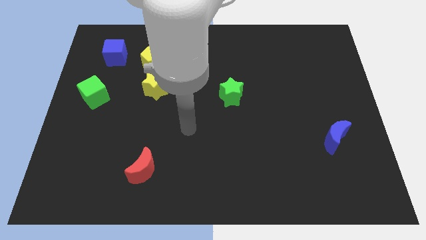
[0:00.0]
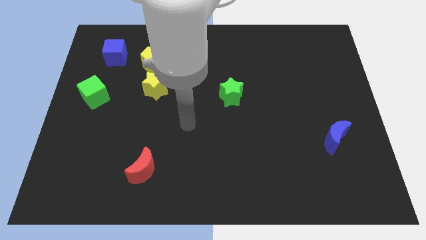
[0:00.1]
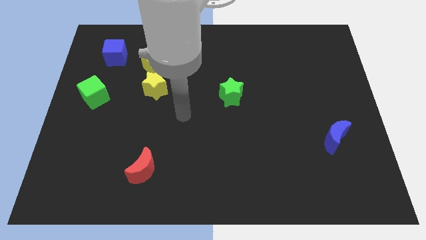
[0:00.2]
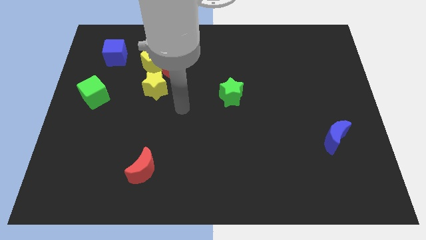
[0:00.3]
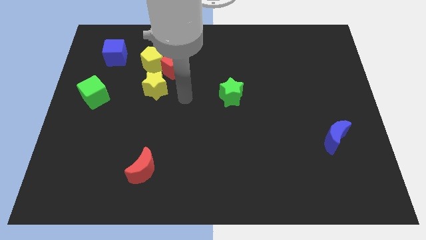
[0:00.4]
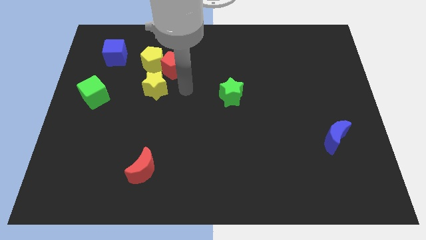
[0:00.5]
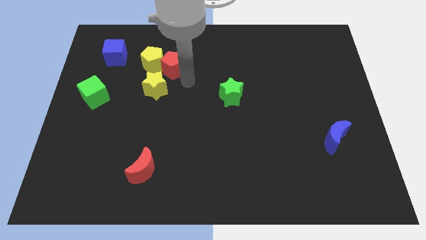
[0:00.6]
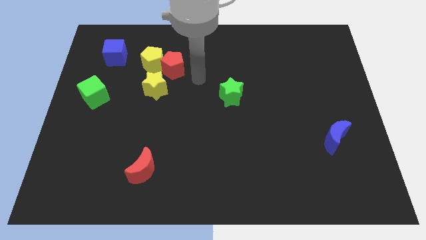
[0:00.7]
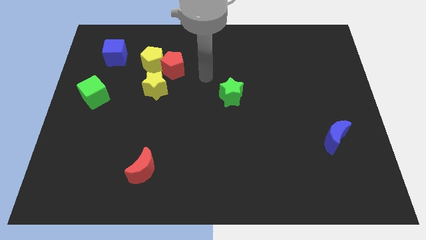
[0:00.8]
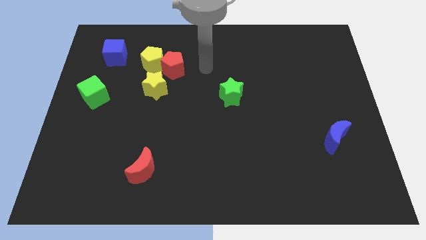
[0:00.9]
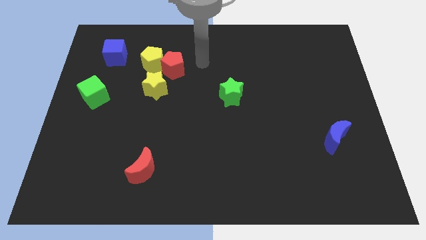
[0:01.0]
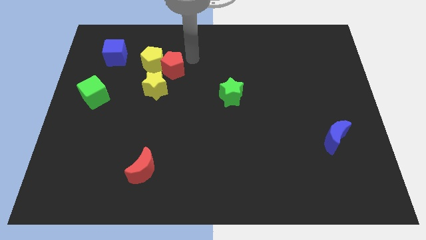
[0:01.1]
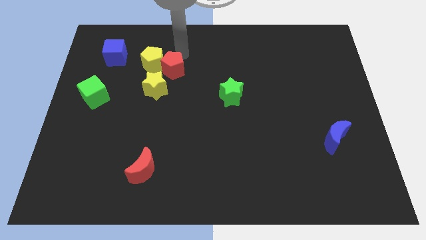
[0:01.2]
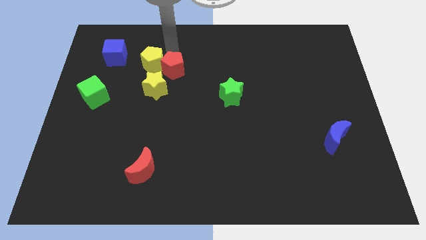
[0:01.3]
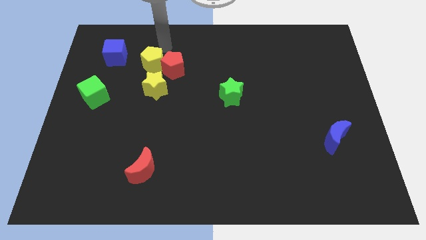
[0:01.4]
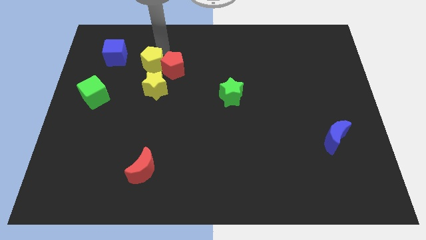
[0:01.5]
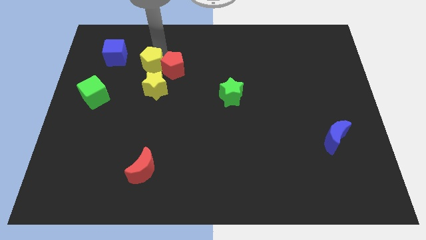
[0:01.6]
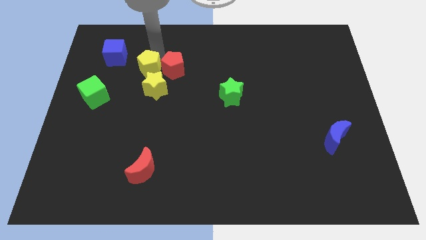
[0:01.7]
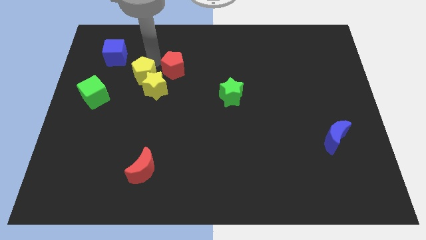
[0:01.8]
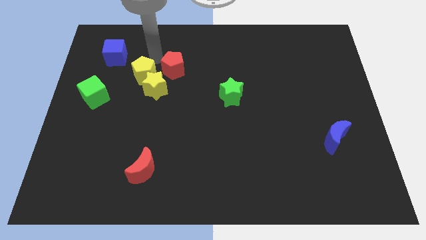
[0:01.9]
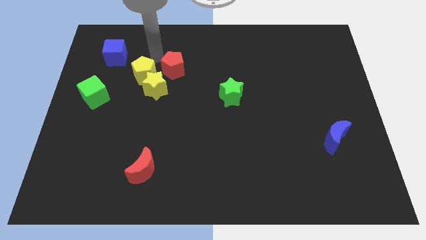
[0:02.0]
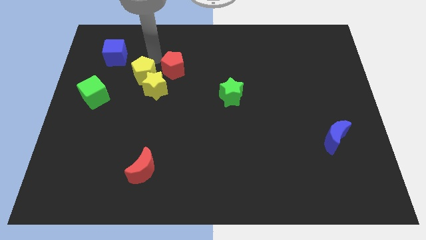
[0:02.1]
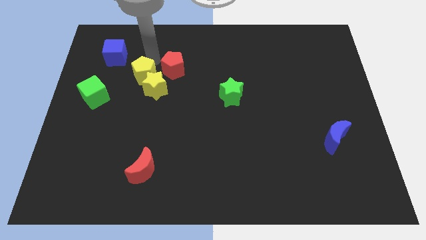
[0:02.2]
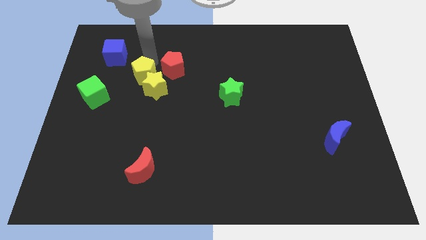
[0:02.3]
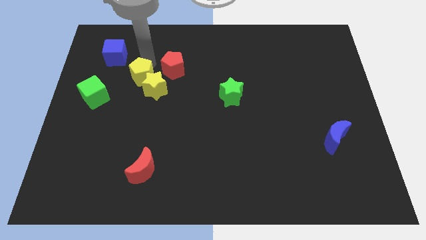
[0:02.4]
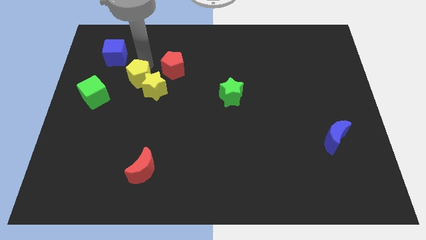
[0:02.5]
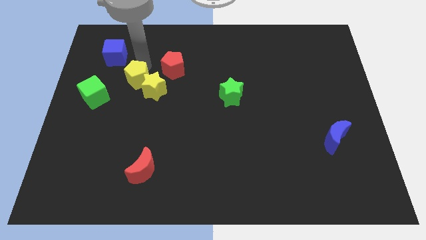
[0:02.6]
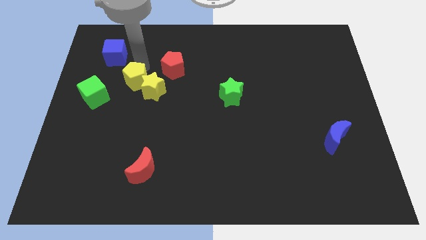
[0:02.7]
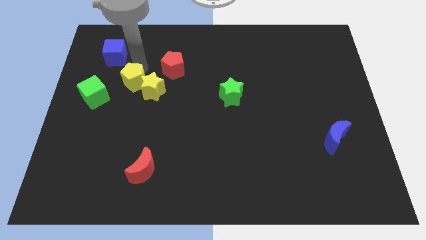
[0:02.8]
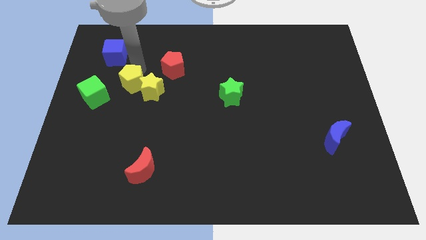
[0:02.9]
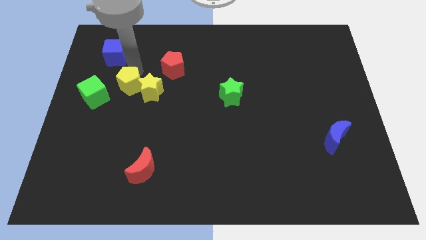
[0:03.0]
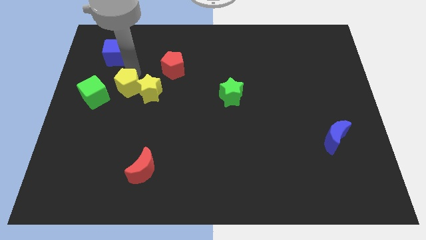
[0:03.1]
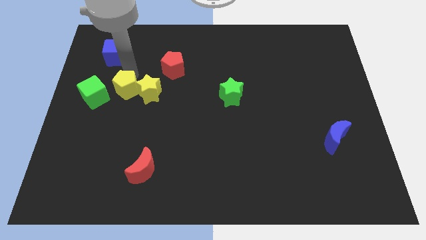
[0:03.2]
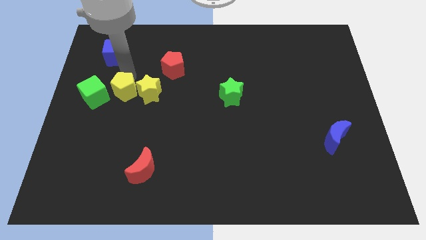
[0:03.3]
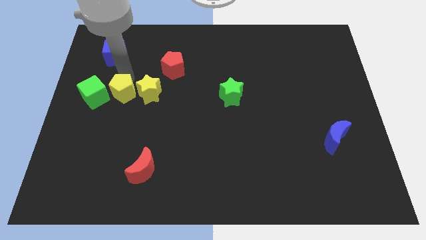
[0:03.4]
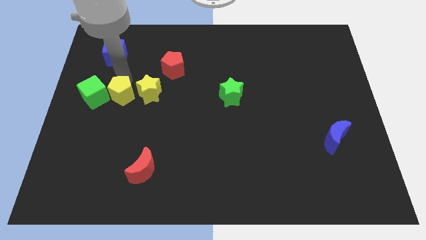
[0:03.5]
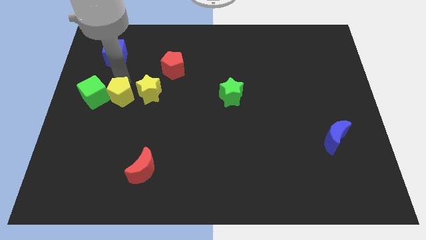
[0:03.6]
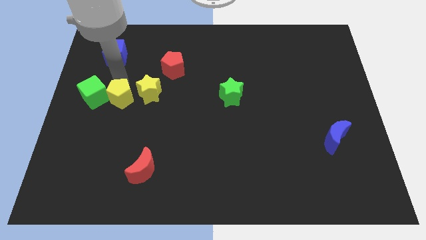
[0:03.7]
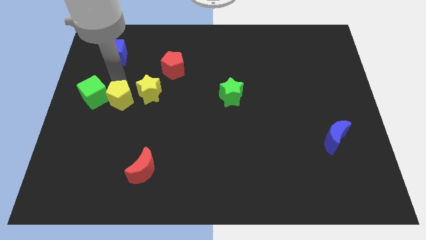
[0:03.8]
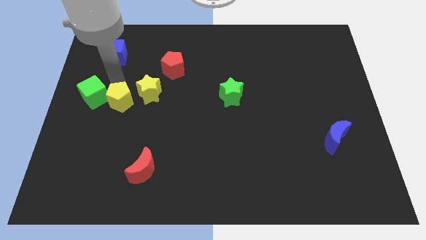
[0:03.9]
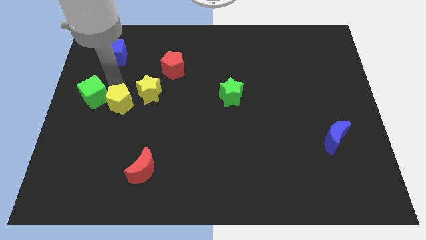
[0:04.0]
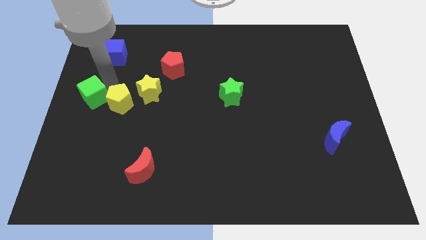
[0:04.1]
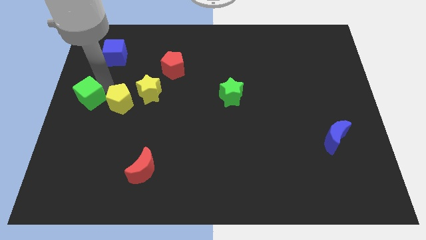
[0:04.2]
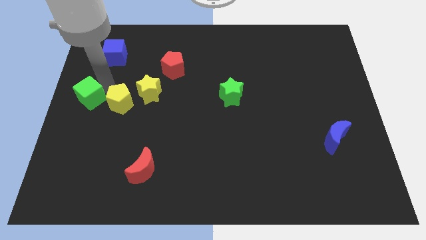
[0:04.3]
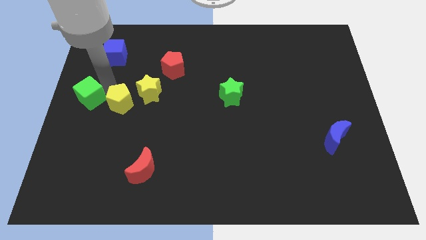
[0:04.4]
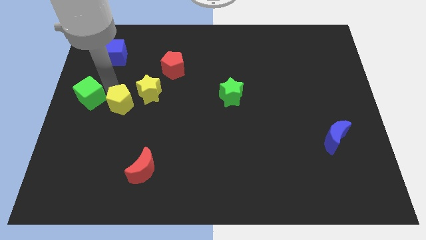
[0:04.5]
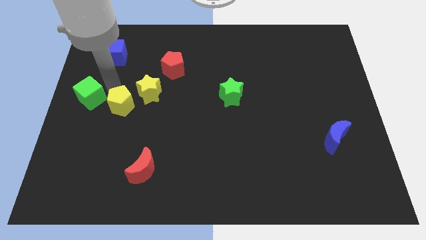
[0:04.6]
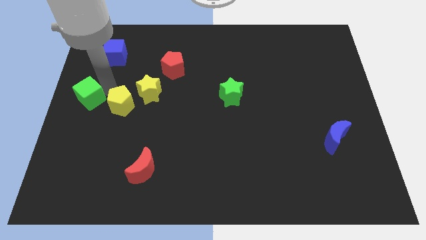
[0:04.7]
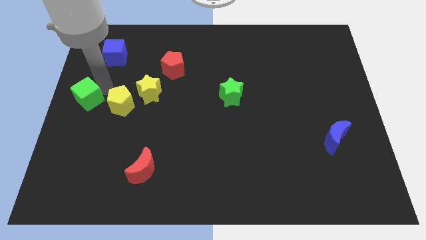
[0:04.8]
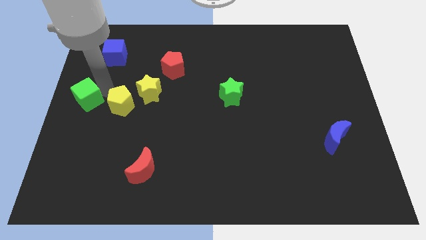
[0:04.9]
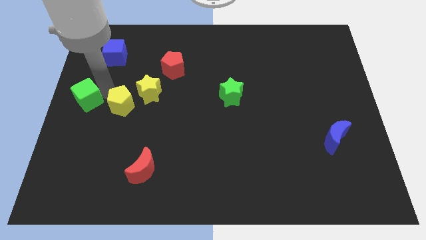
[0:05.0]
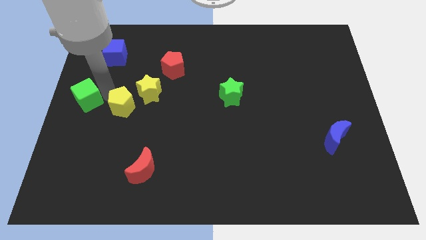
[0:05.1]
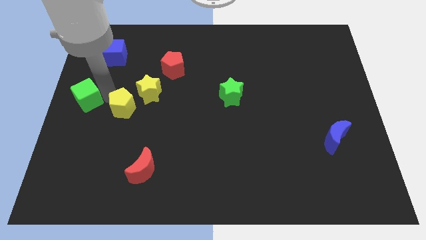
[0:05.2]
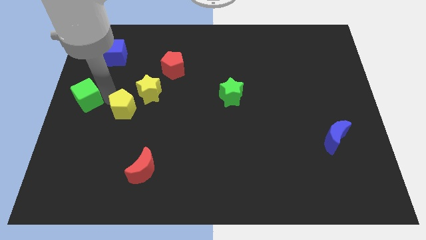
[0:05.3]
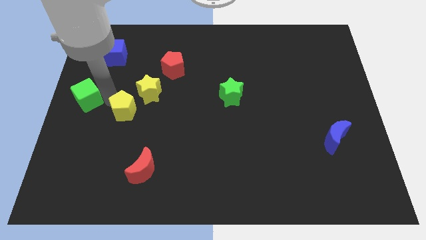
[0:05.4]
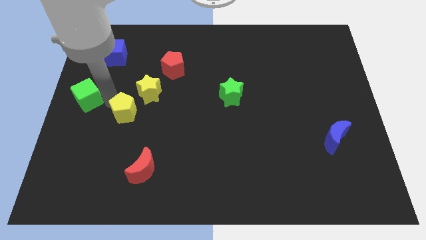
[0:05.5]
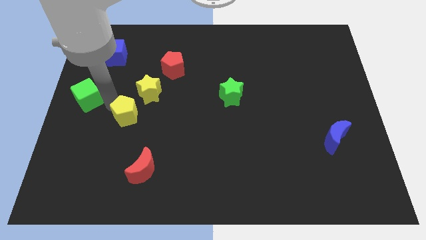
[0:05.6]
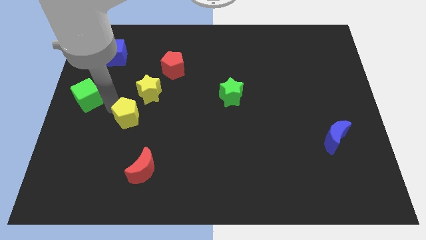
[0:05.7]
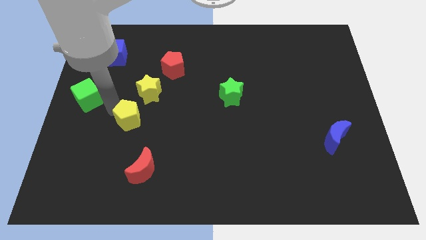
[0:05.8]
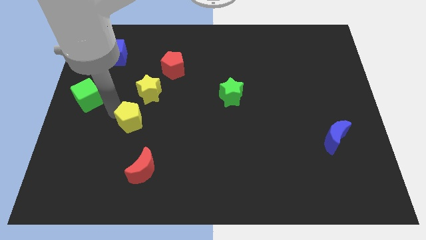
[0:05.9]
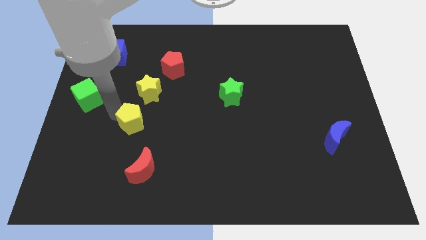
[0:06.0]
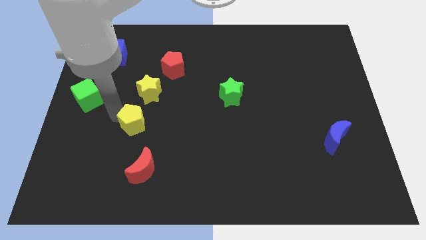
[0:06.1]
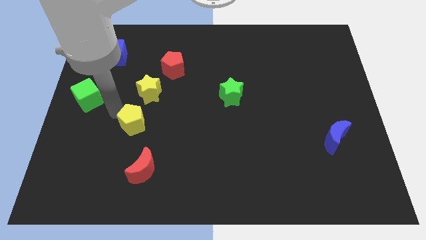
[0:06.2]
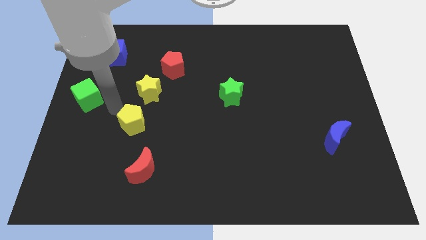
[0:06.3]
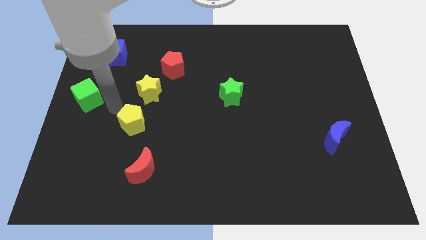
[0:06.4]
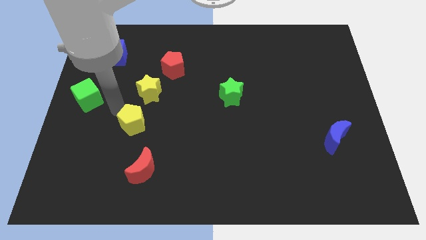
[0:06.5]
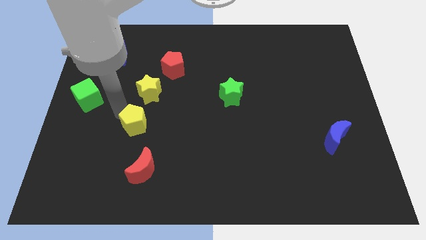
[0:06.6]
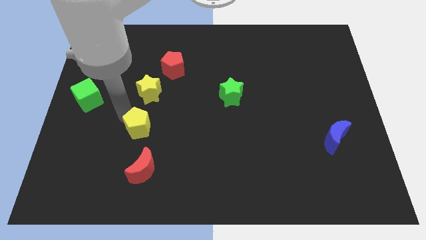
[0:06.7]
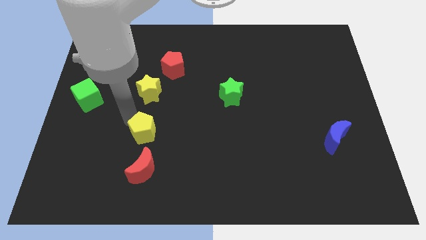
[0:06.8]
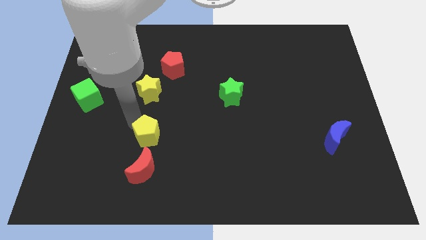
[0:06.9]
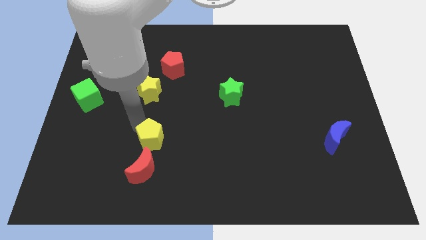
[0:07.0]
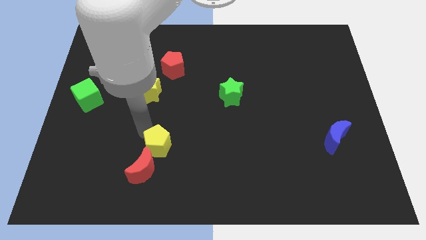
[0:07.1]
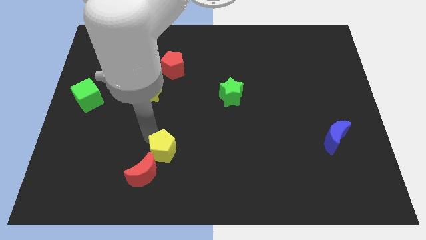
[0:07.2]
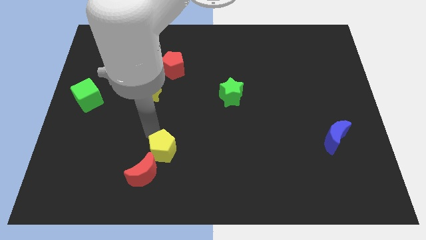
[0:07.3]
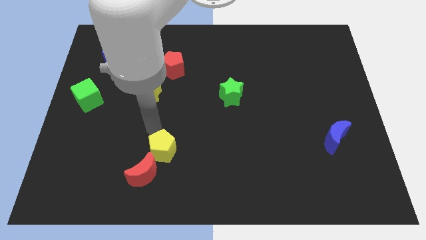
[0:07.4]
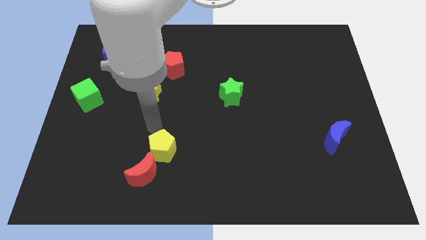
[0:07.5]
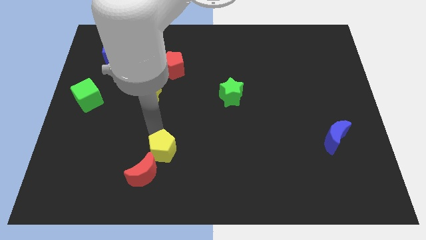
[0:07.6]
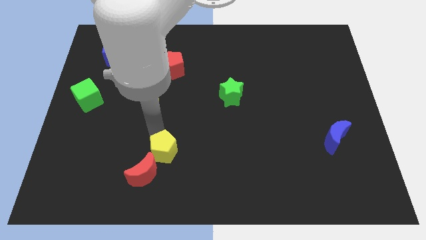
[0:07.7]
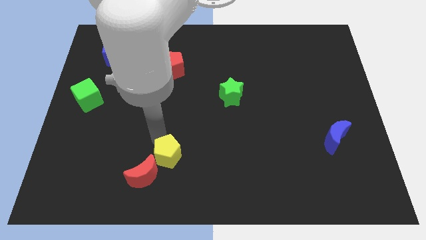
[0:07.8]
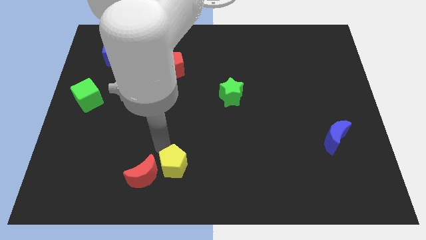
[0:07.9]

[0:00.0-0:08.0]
push the yellow pentagon to the bottom
